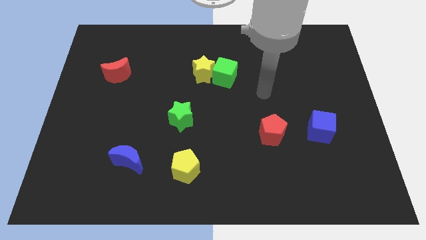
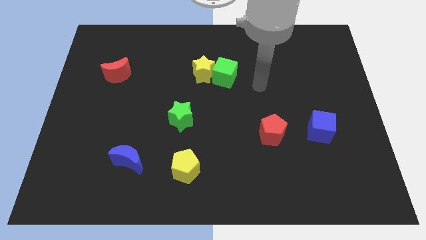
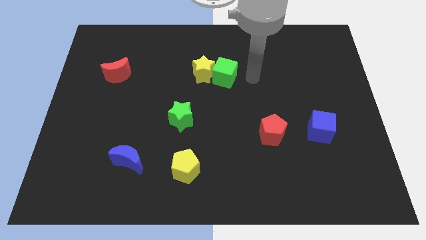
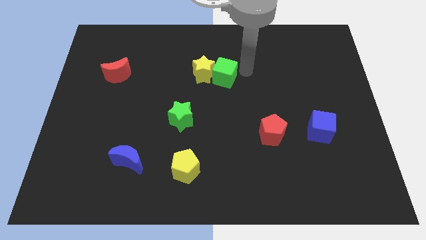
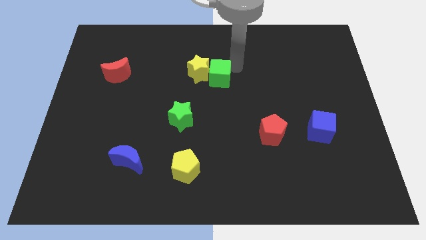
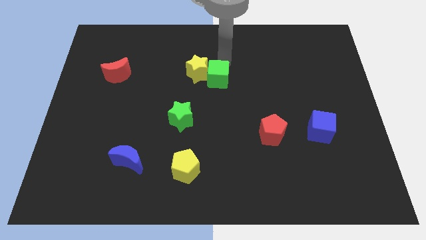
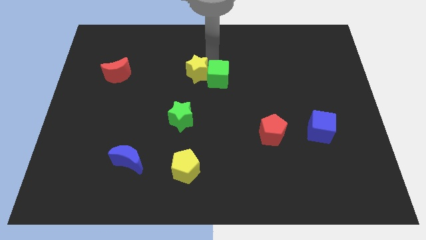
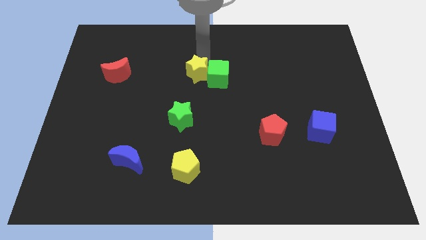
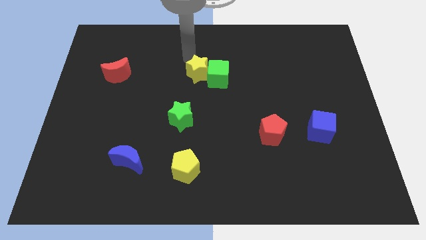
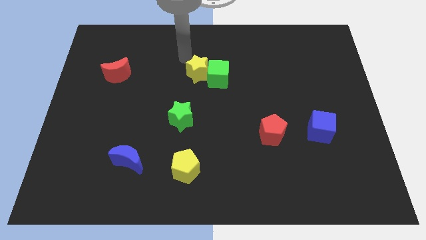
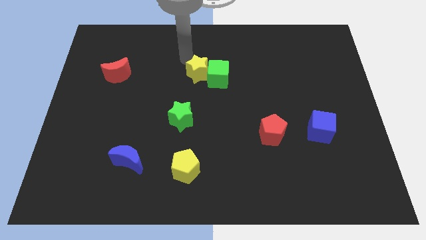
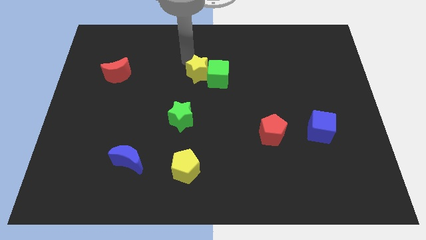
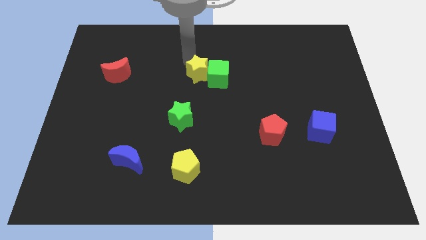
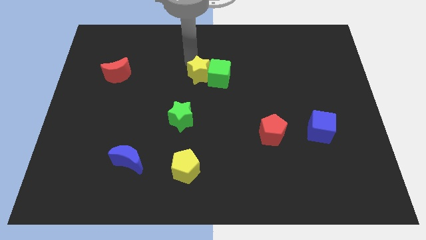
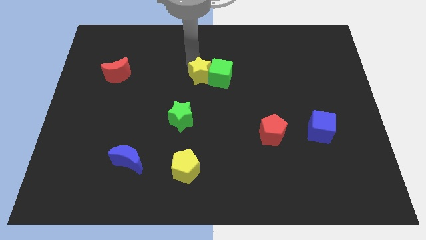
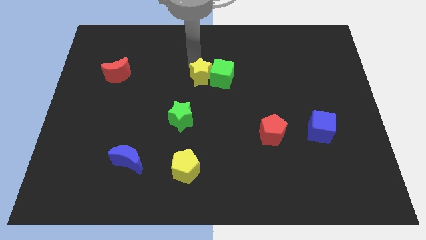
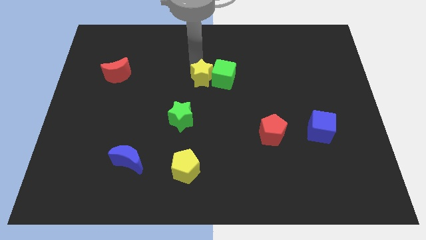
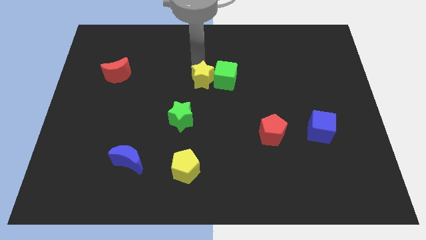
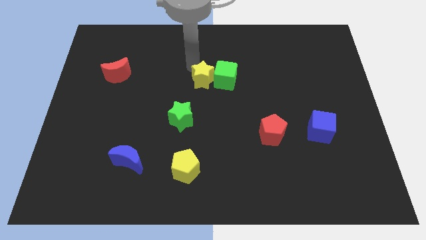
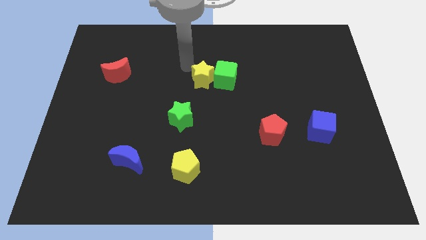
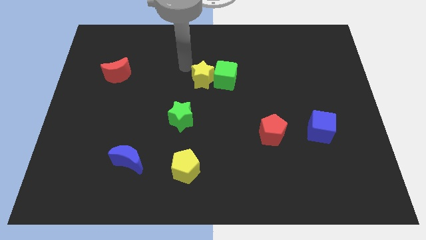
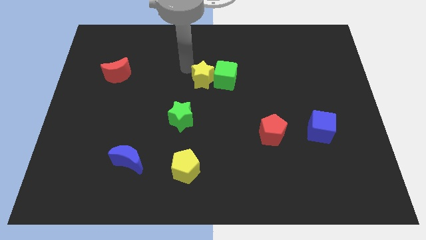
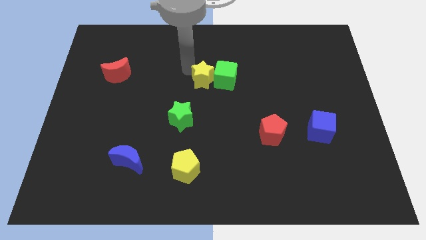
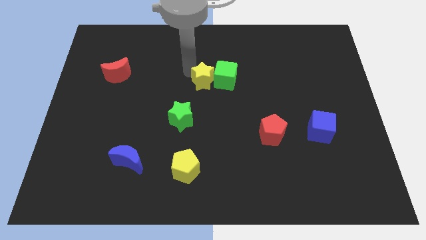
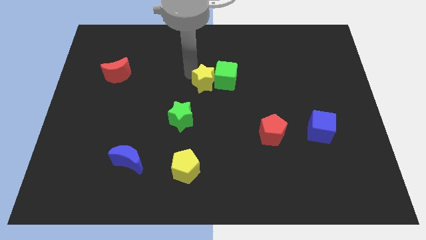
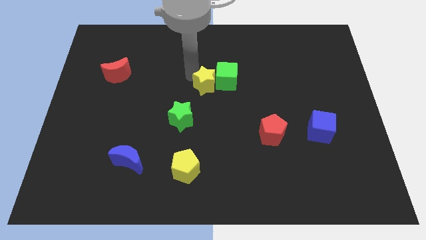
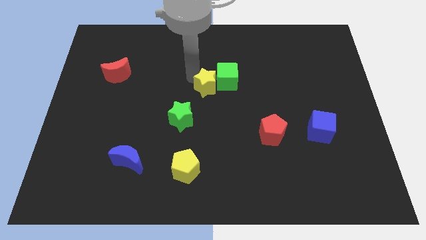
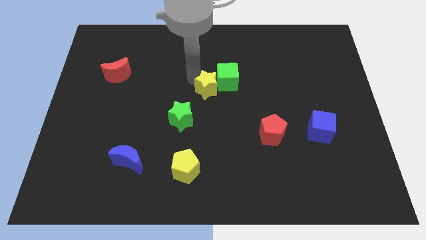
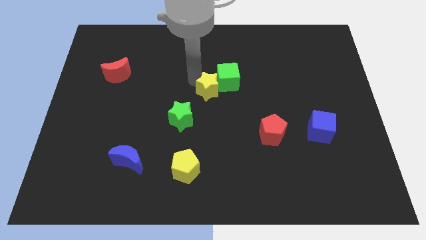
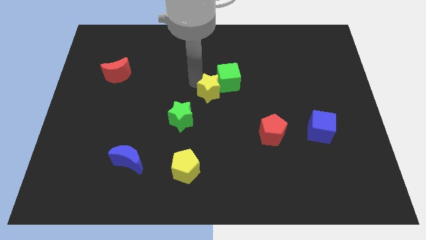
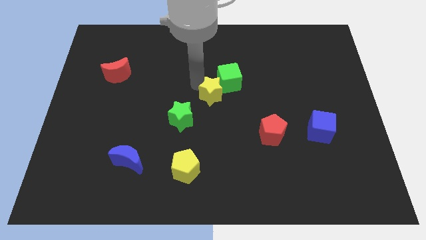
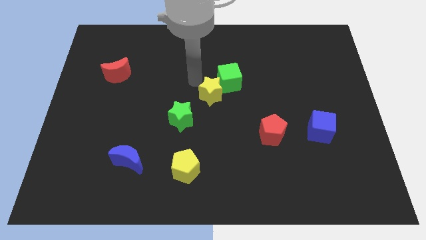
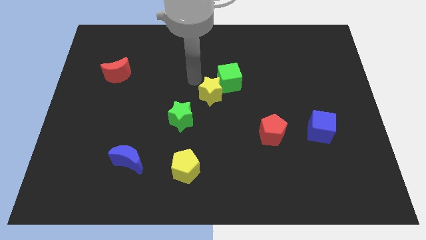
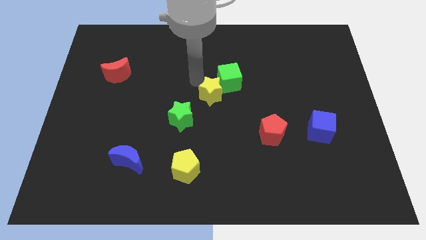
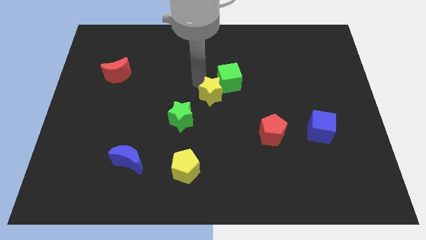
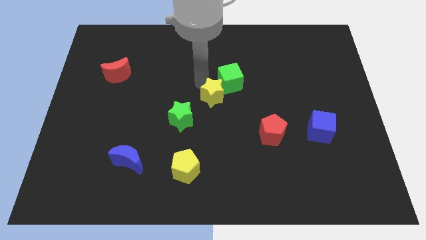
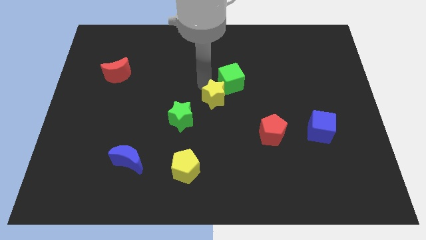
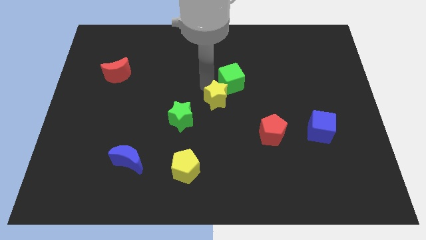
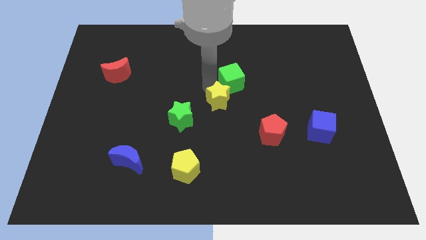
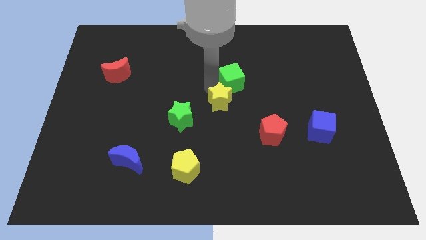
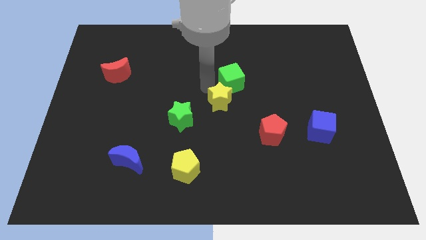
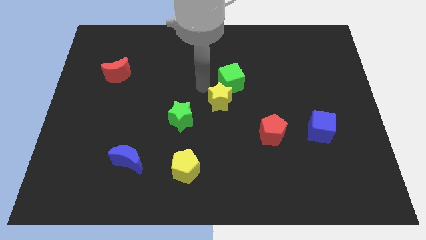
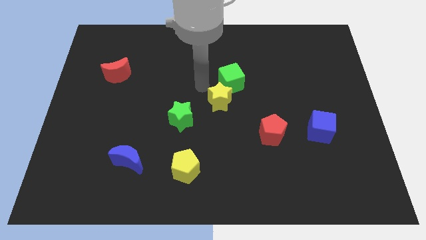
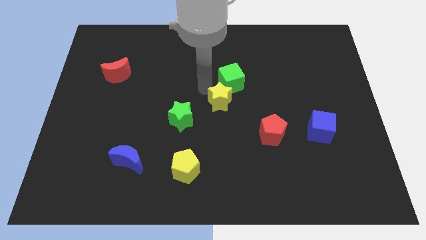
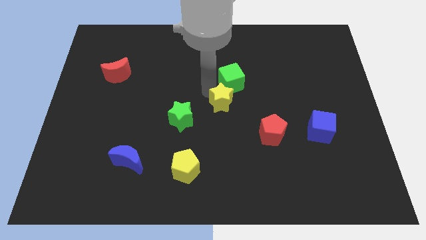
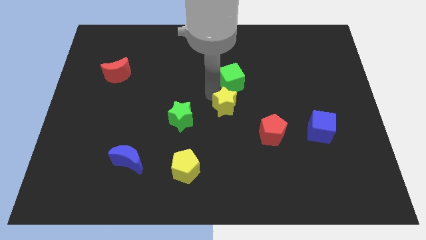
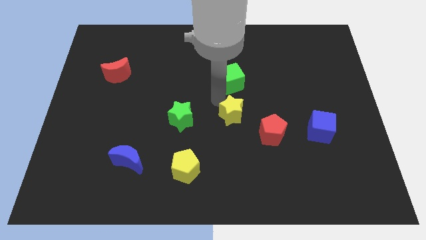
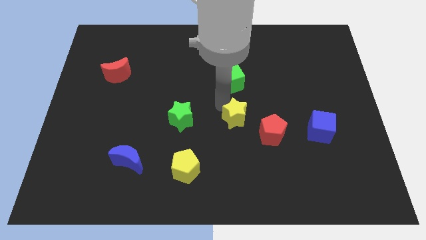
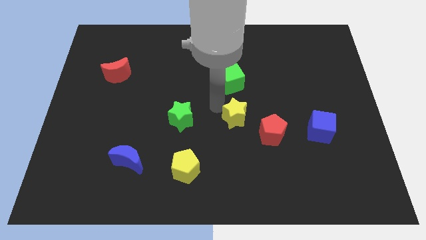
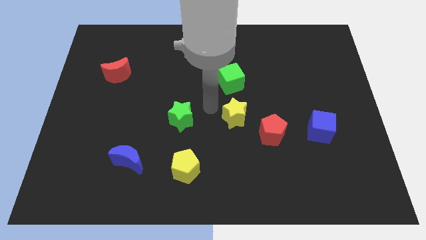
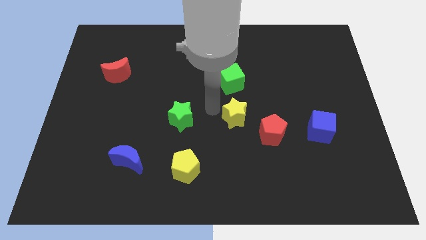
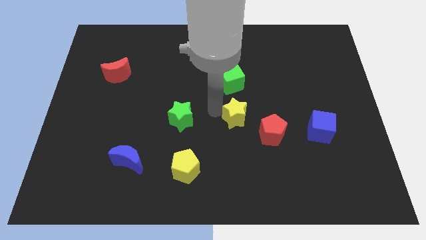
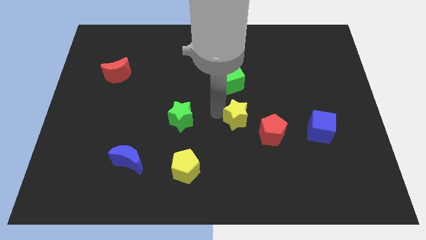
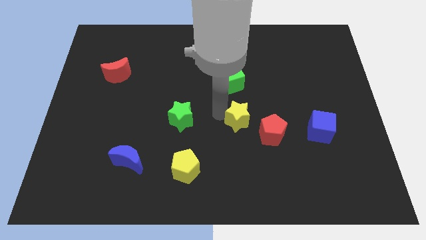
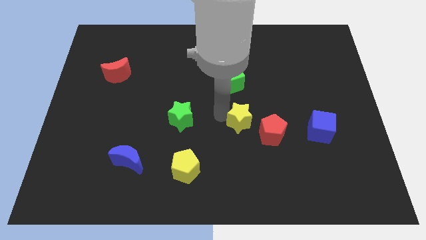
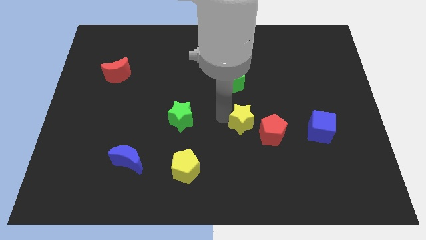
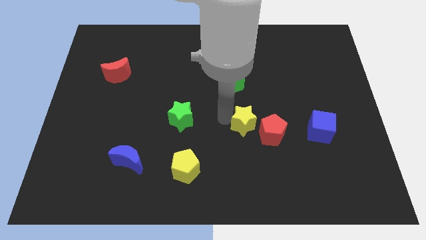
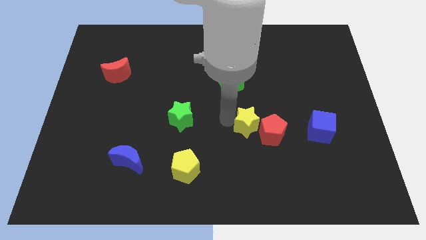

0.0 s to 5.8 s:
push the yellow star to the red pentagon

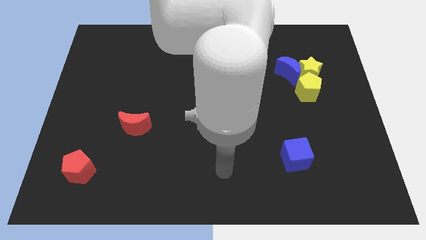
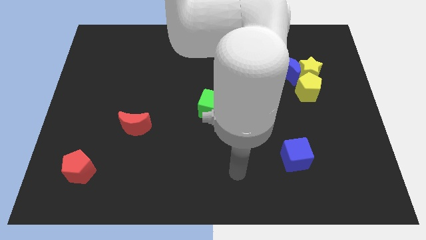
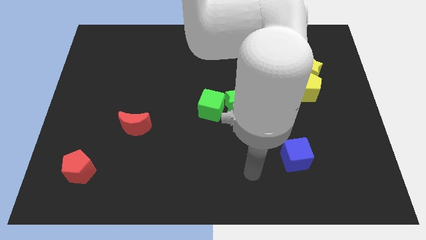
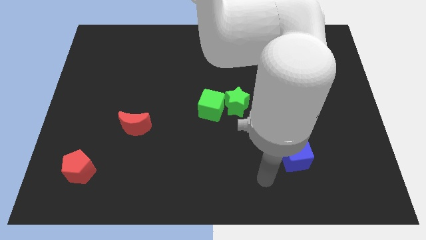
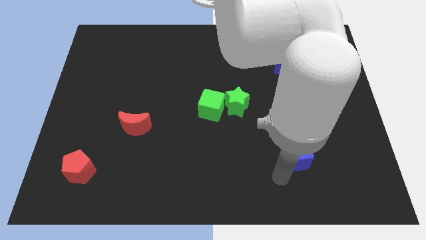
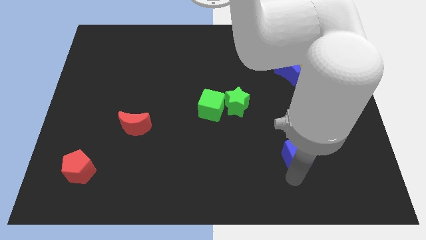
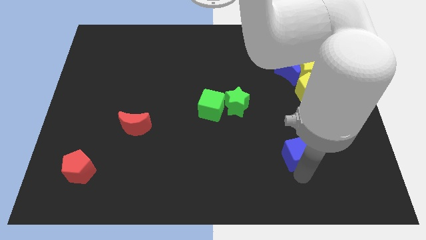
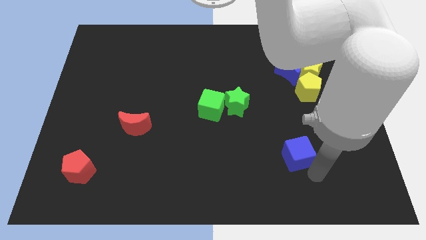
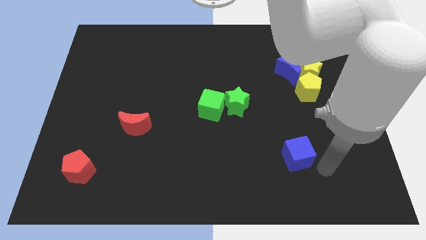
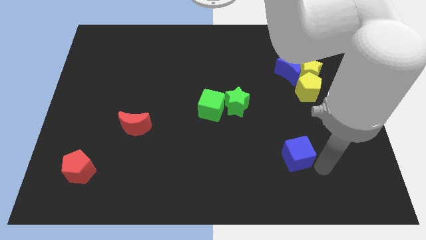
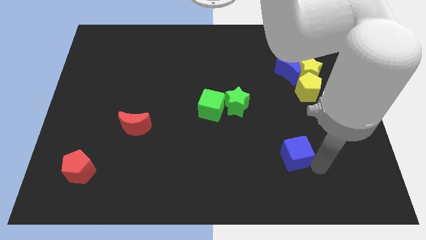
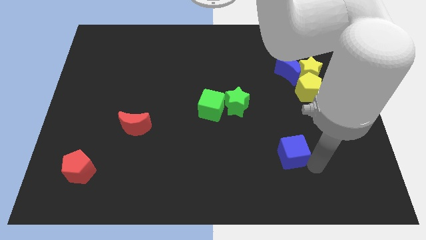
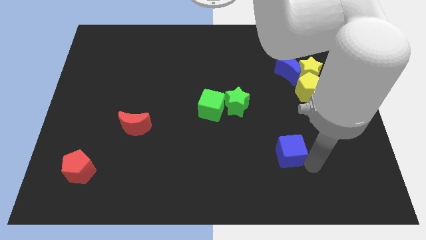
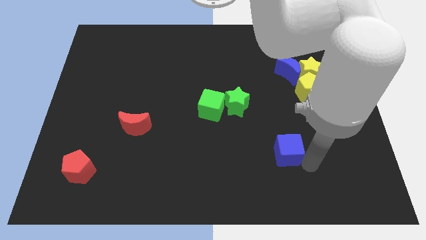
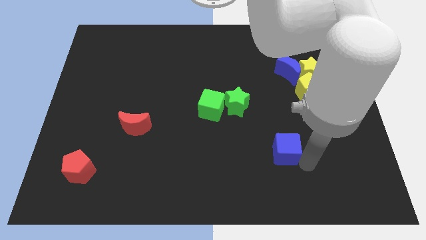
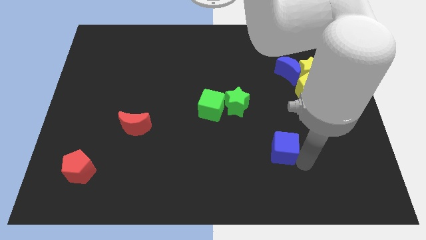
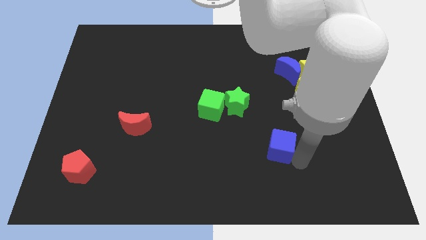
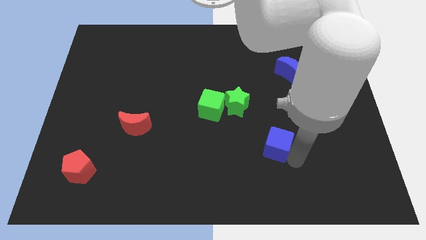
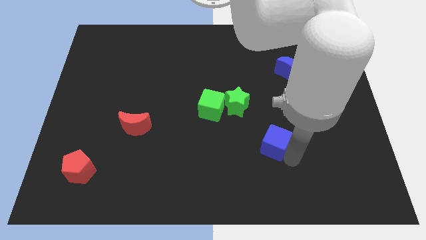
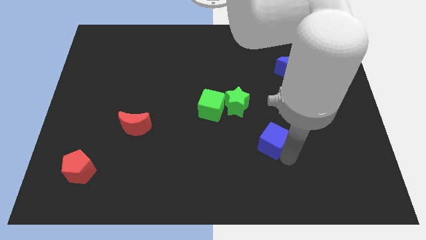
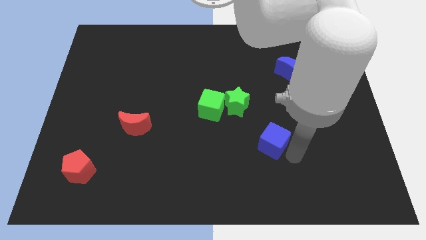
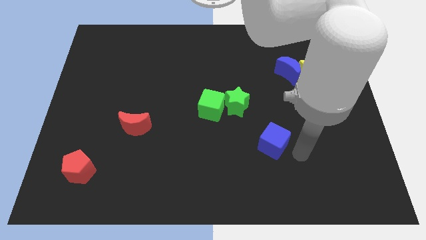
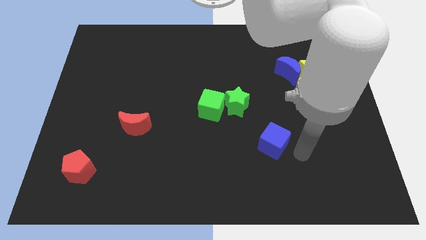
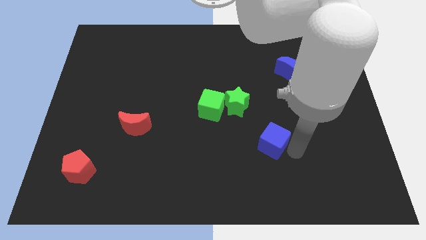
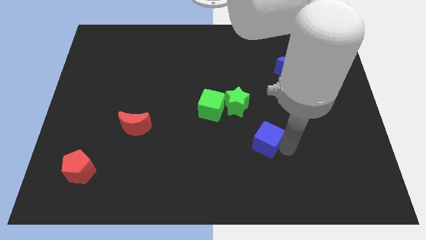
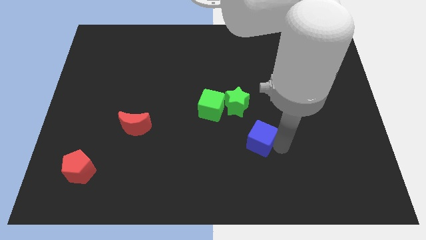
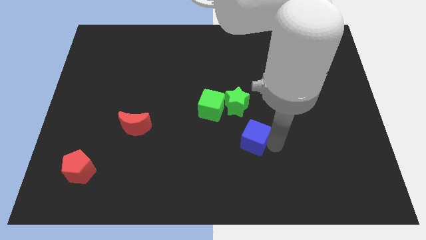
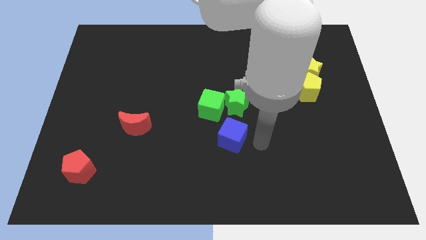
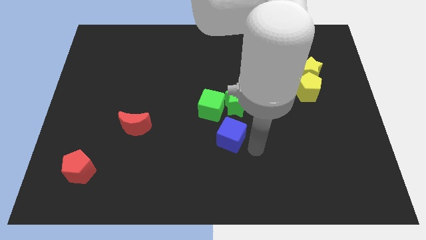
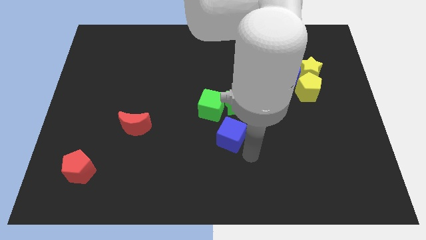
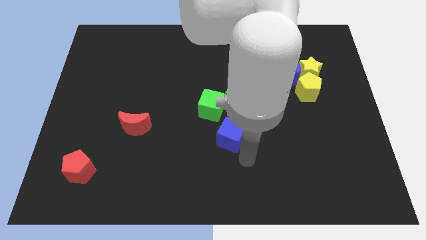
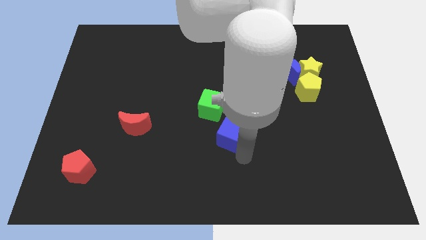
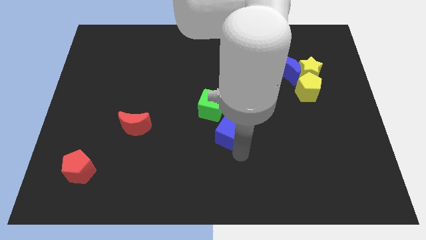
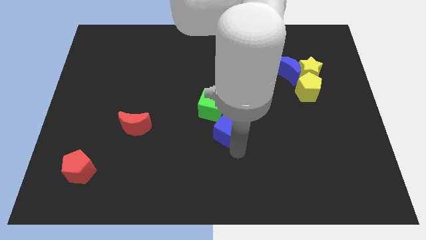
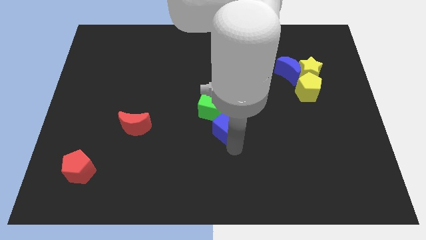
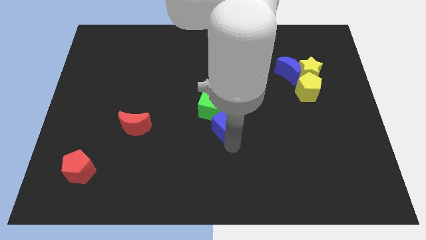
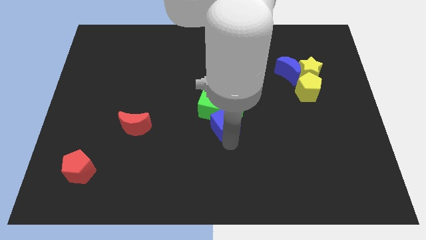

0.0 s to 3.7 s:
slide the blue cube close to the green cube
